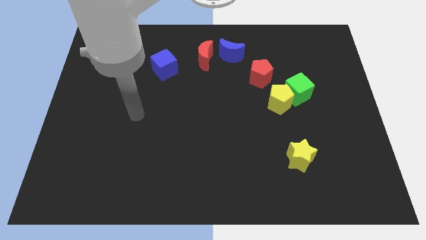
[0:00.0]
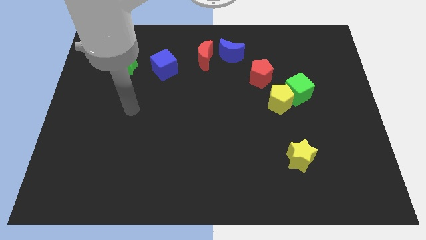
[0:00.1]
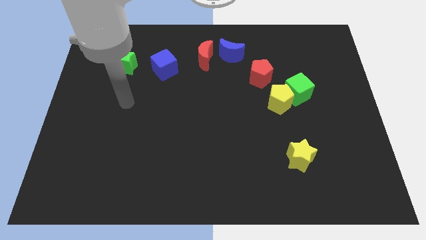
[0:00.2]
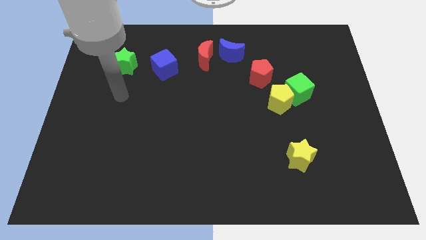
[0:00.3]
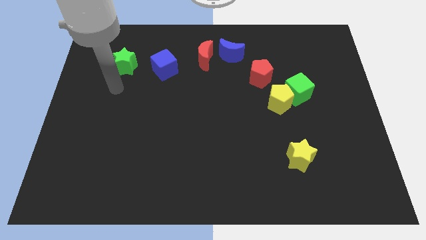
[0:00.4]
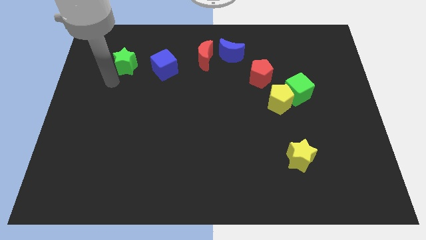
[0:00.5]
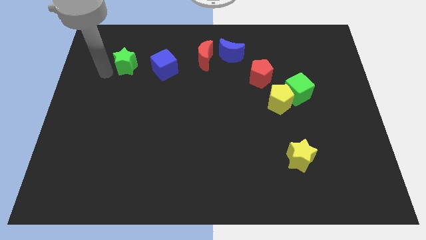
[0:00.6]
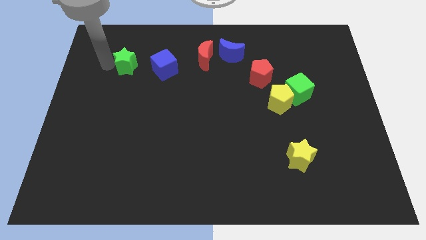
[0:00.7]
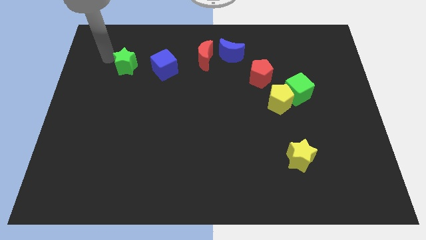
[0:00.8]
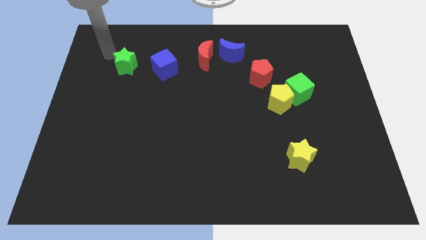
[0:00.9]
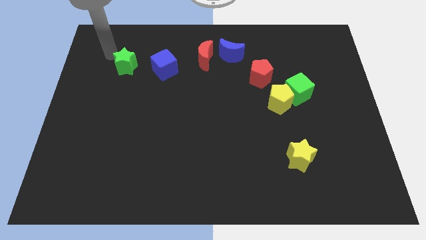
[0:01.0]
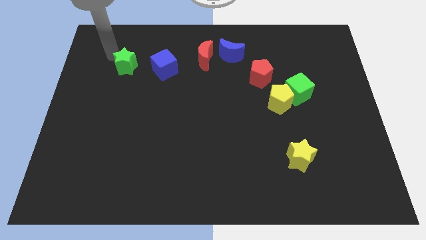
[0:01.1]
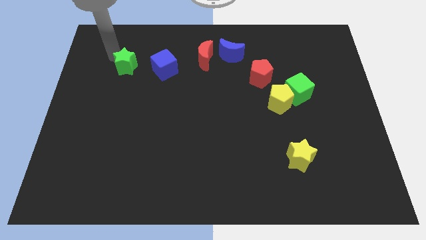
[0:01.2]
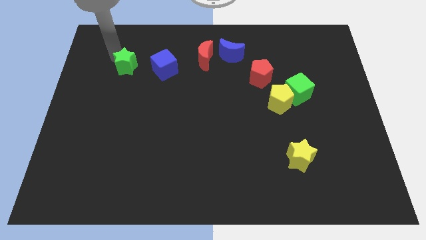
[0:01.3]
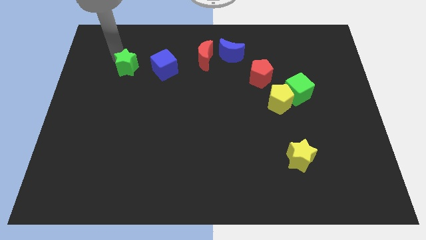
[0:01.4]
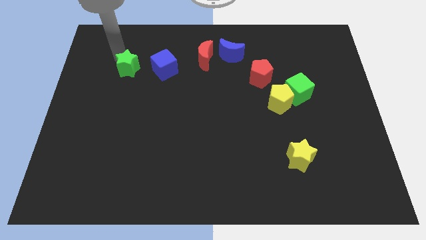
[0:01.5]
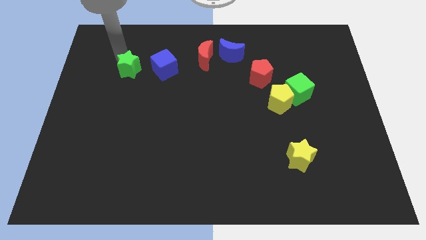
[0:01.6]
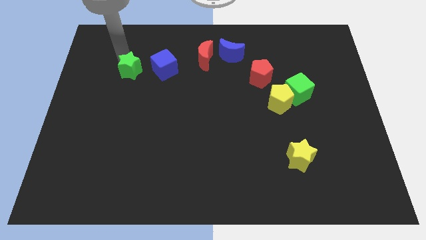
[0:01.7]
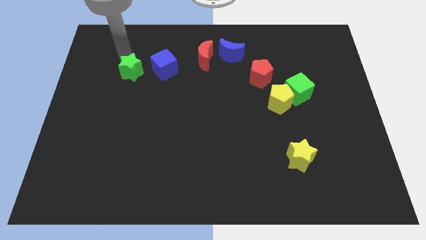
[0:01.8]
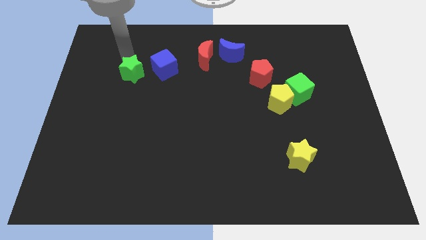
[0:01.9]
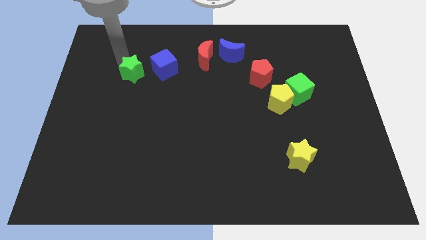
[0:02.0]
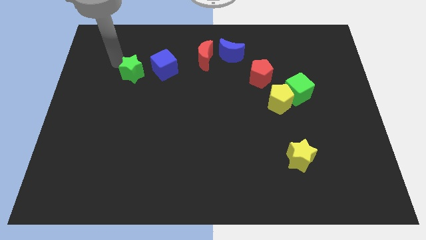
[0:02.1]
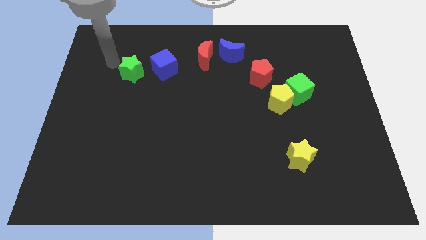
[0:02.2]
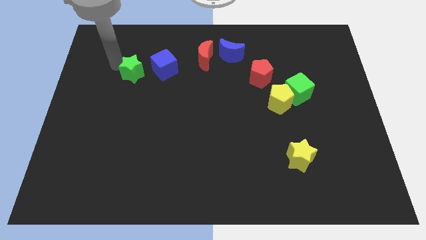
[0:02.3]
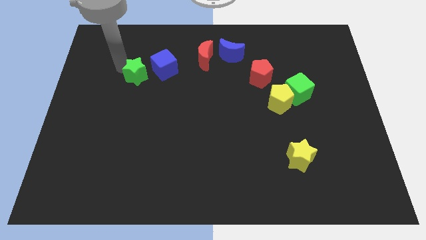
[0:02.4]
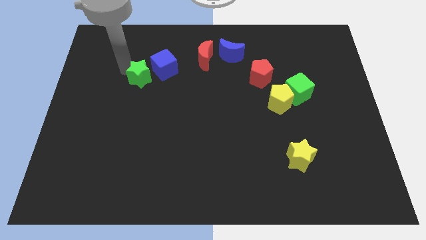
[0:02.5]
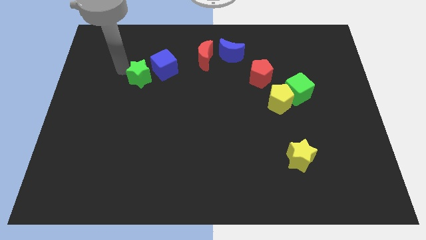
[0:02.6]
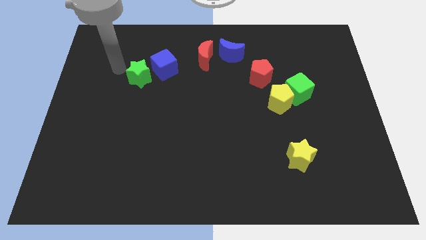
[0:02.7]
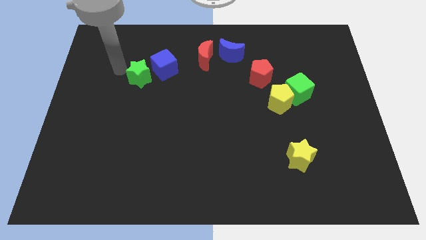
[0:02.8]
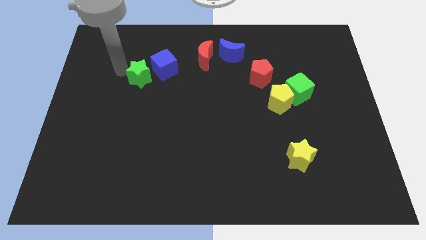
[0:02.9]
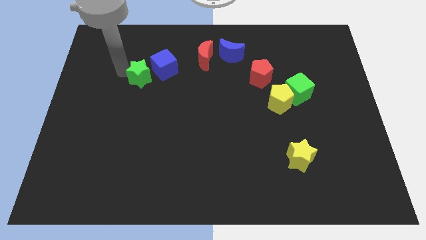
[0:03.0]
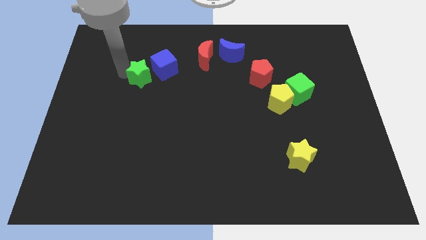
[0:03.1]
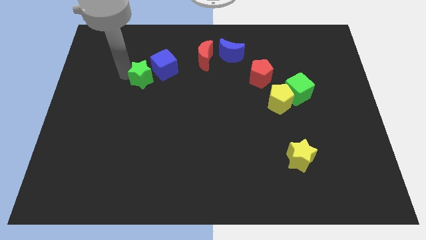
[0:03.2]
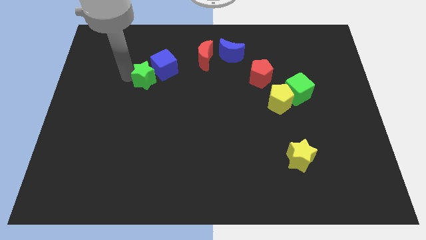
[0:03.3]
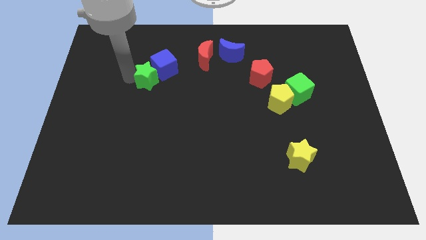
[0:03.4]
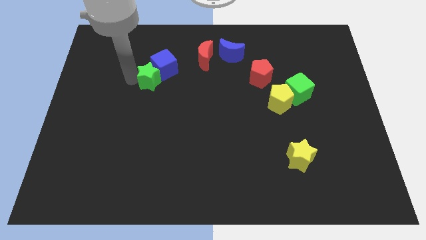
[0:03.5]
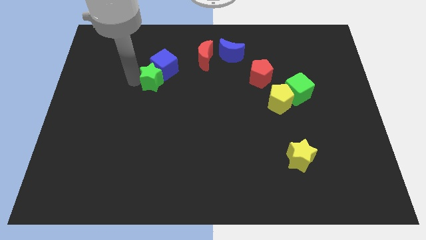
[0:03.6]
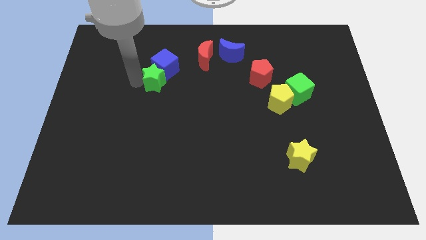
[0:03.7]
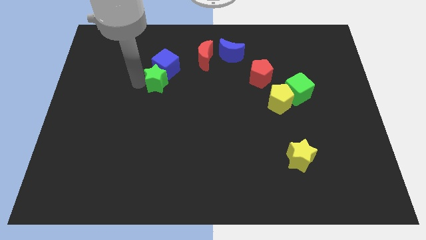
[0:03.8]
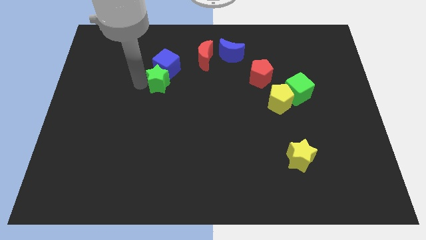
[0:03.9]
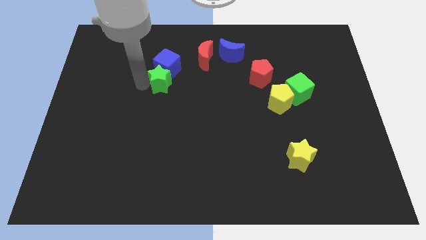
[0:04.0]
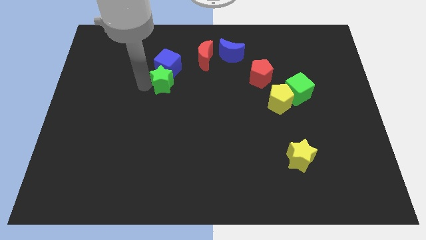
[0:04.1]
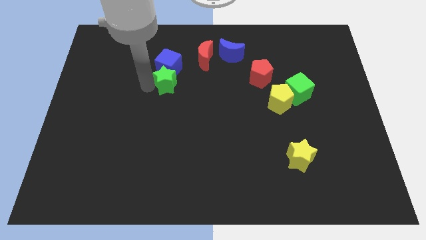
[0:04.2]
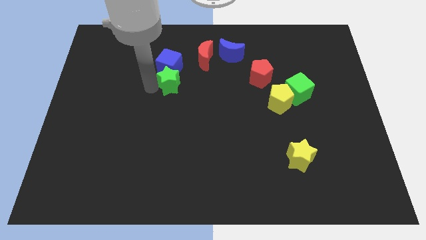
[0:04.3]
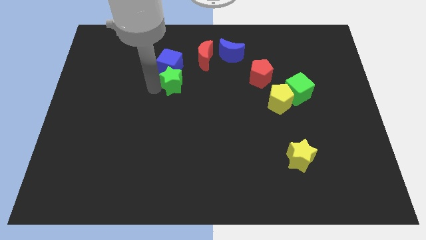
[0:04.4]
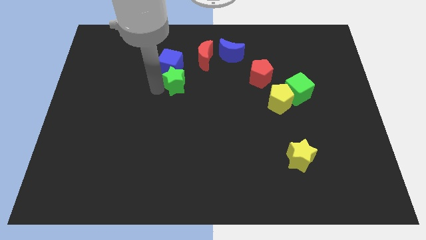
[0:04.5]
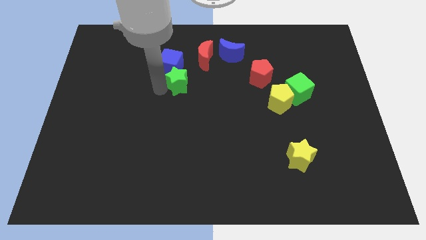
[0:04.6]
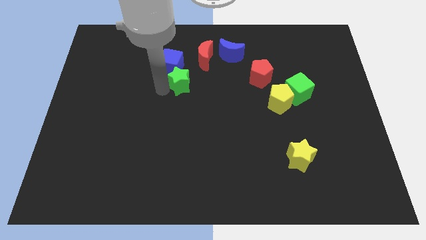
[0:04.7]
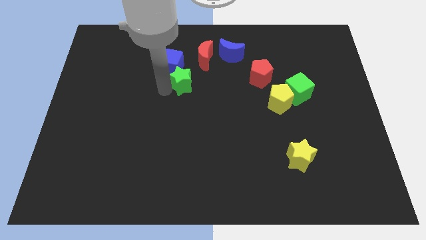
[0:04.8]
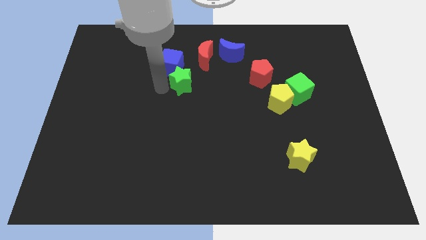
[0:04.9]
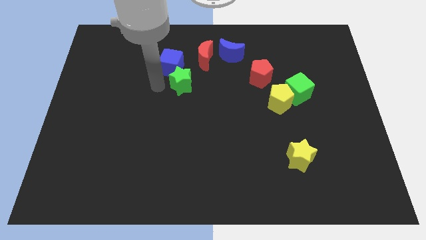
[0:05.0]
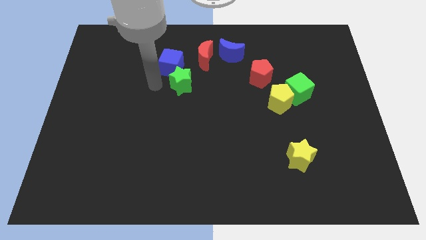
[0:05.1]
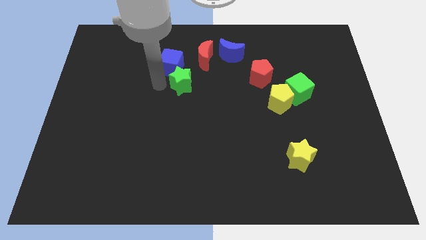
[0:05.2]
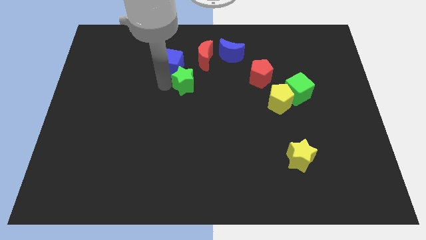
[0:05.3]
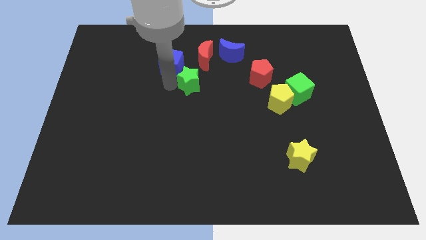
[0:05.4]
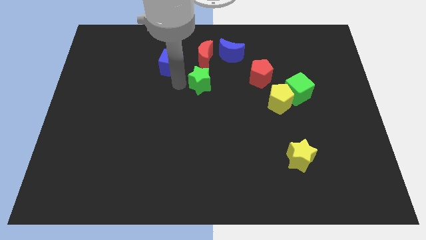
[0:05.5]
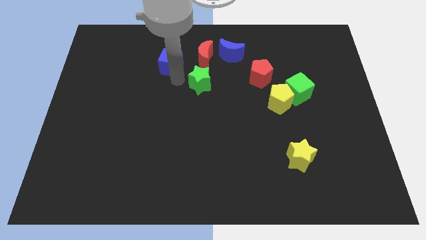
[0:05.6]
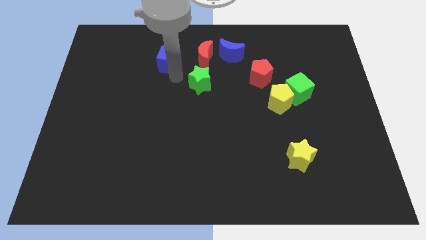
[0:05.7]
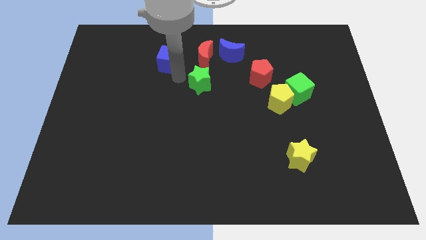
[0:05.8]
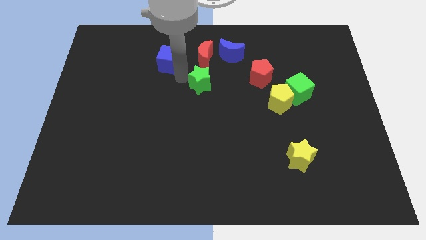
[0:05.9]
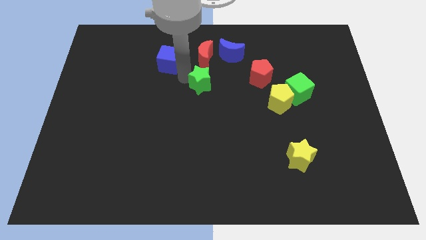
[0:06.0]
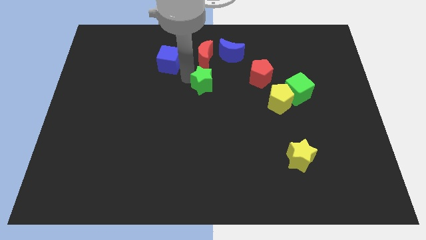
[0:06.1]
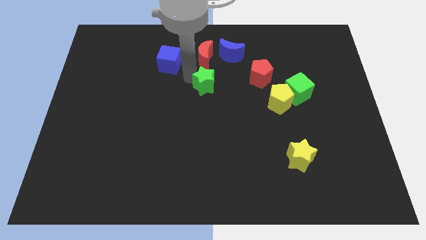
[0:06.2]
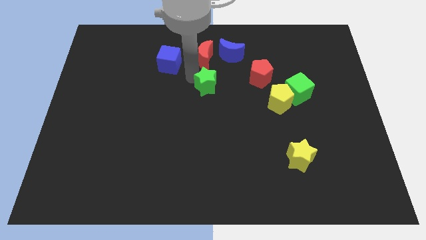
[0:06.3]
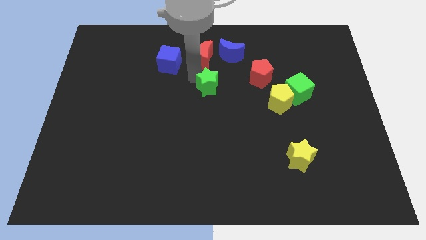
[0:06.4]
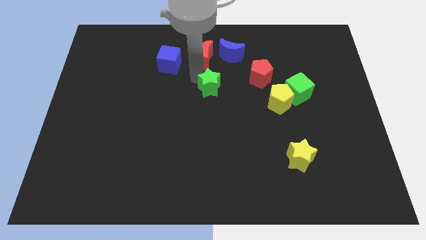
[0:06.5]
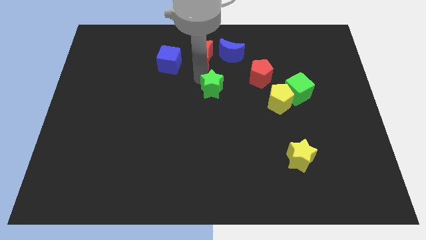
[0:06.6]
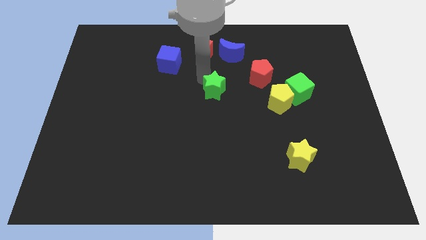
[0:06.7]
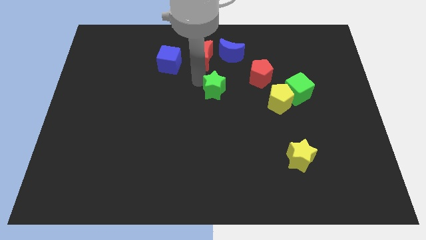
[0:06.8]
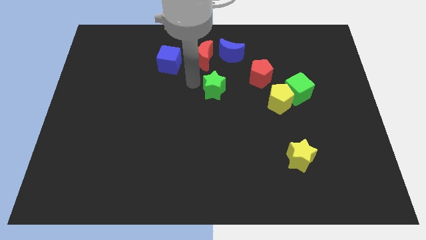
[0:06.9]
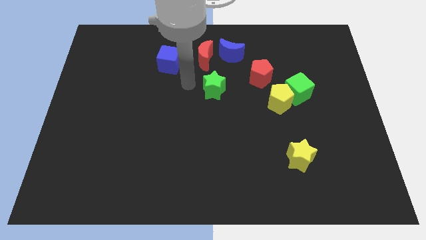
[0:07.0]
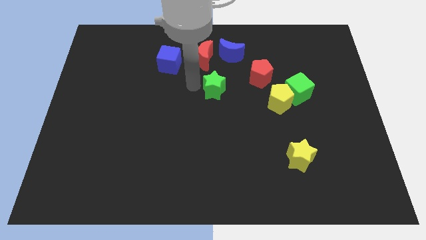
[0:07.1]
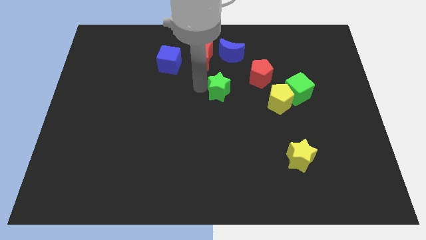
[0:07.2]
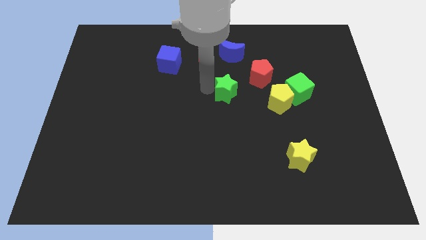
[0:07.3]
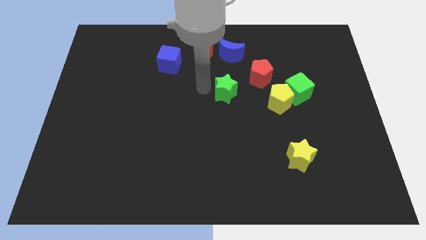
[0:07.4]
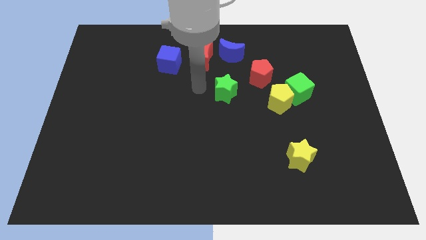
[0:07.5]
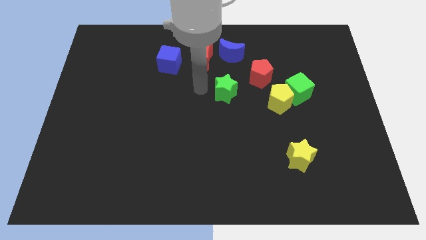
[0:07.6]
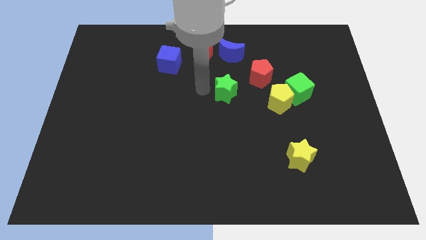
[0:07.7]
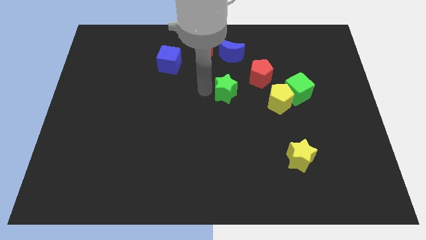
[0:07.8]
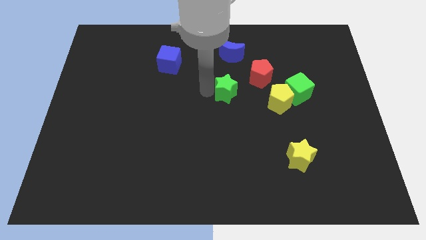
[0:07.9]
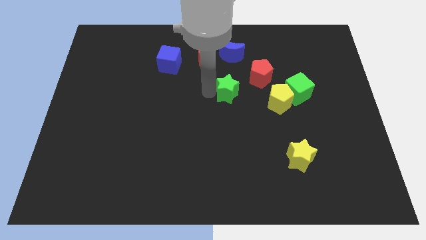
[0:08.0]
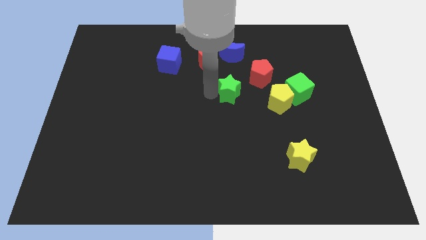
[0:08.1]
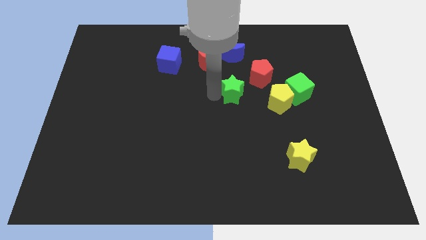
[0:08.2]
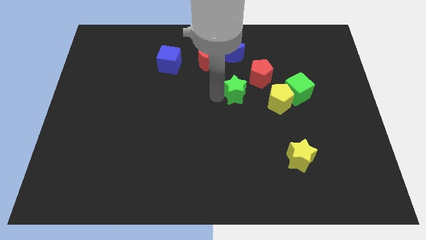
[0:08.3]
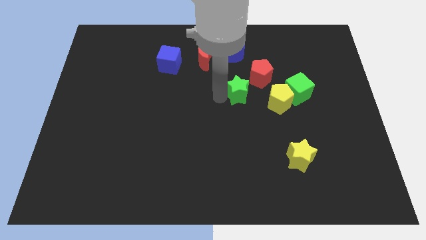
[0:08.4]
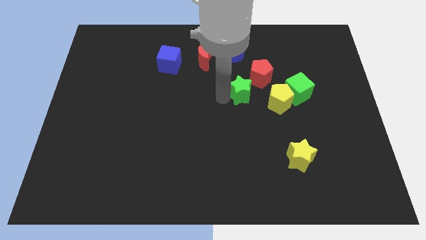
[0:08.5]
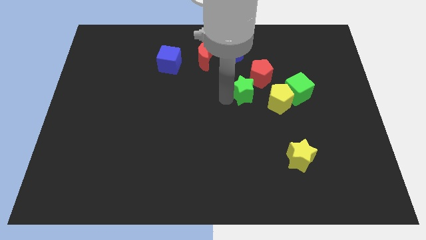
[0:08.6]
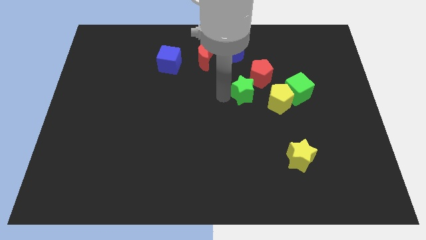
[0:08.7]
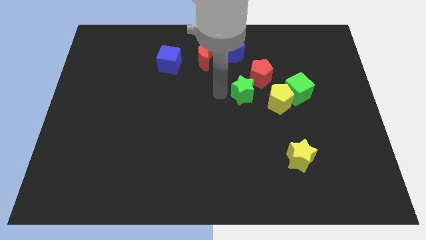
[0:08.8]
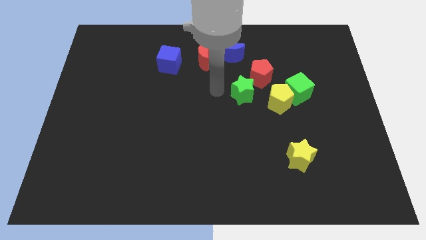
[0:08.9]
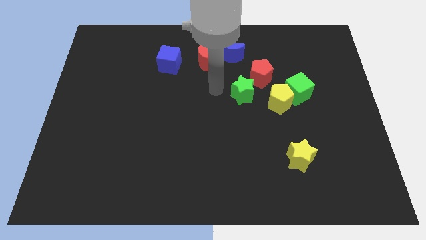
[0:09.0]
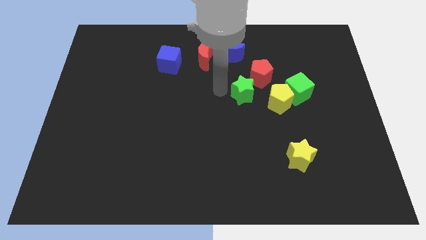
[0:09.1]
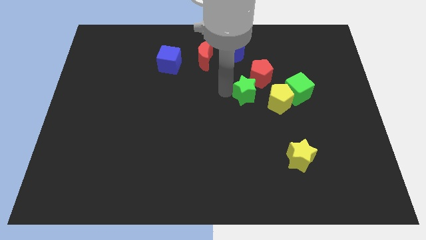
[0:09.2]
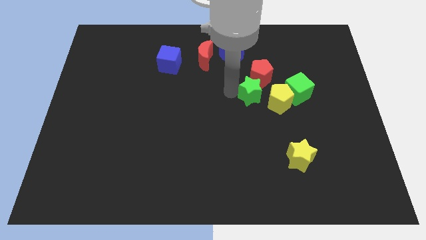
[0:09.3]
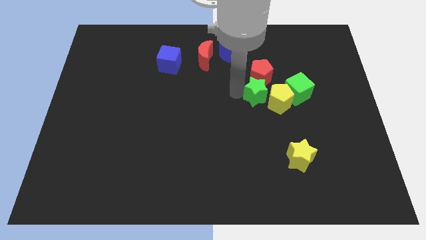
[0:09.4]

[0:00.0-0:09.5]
slide the green star towards the yellow pentagon
